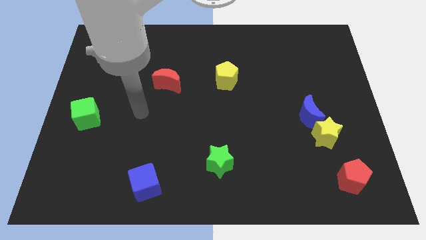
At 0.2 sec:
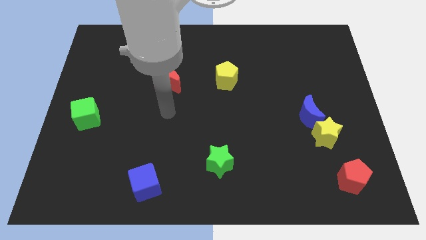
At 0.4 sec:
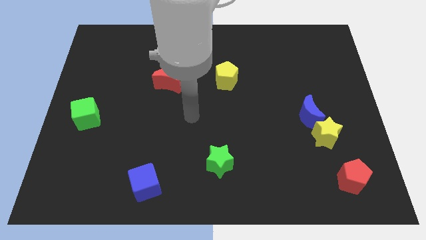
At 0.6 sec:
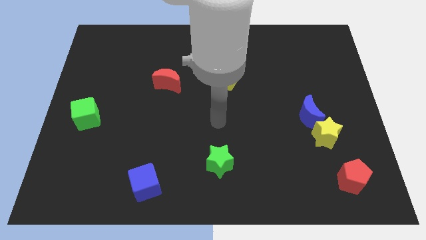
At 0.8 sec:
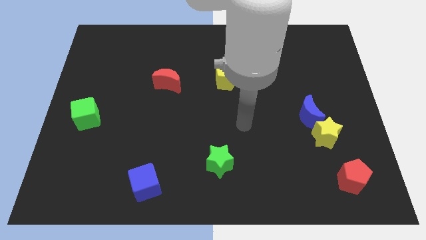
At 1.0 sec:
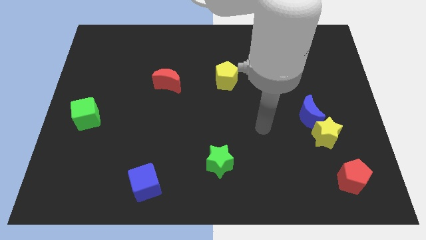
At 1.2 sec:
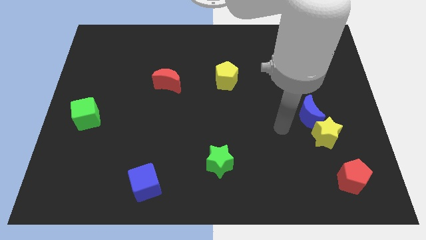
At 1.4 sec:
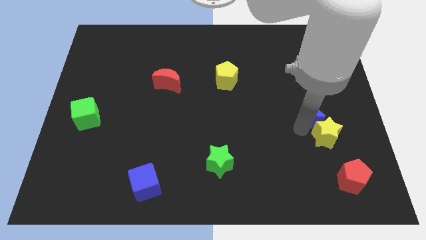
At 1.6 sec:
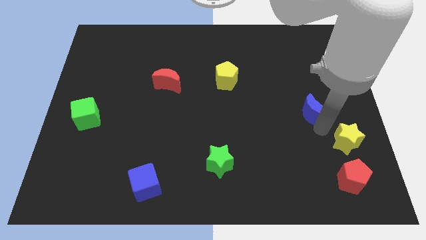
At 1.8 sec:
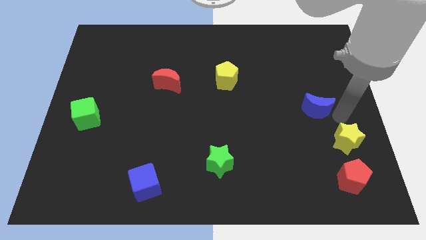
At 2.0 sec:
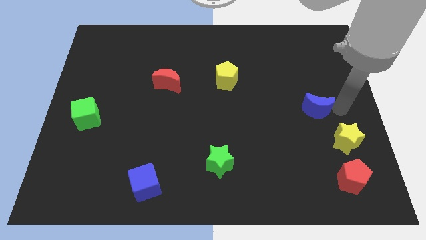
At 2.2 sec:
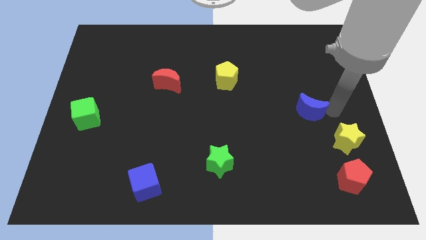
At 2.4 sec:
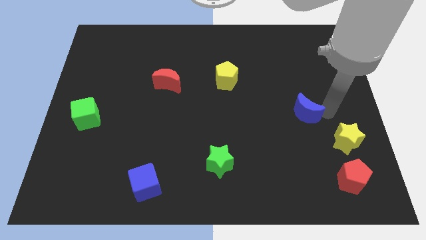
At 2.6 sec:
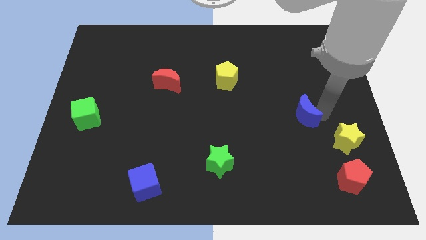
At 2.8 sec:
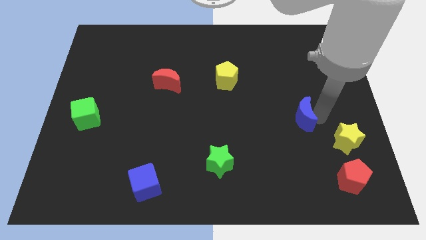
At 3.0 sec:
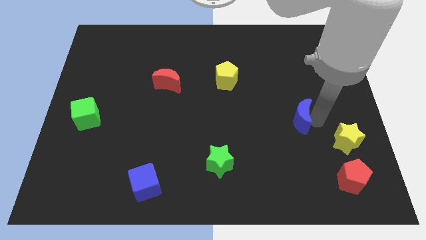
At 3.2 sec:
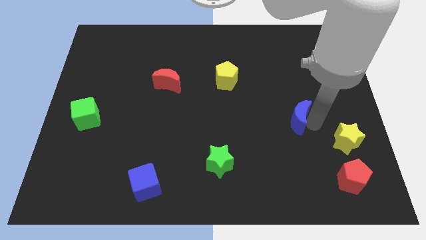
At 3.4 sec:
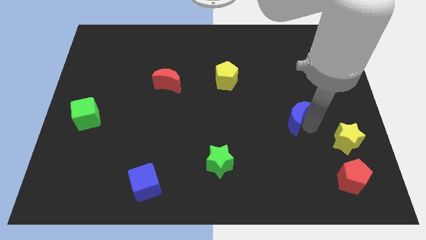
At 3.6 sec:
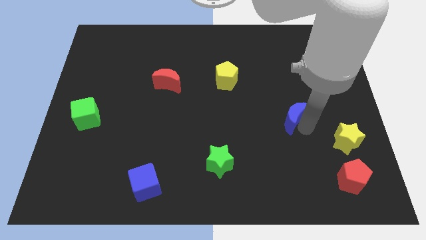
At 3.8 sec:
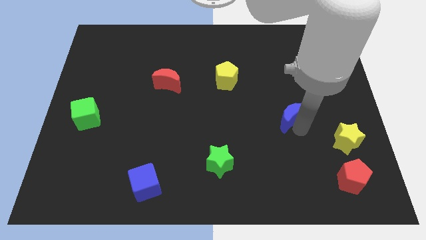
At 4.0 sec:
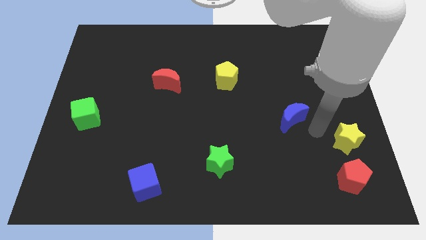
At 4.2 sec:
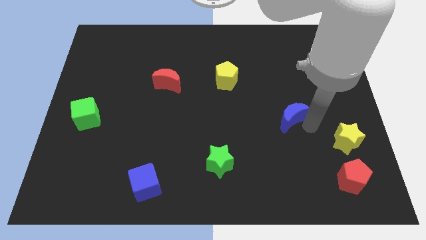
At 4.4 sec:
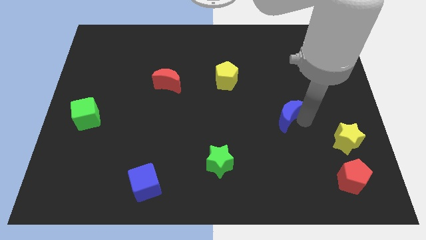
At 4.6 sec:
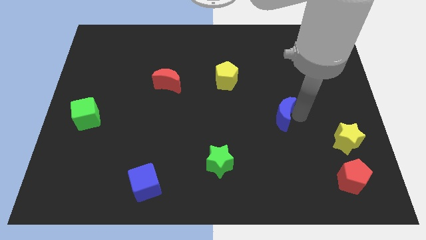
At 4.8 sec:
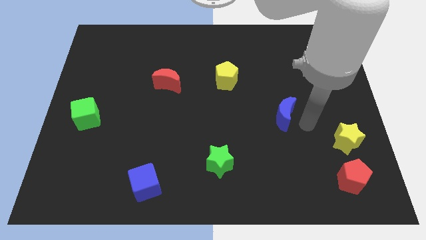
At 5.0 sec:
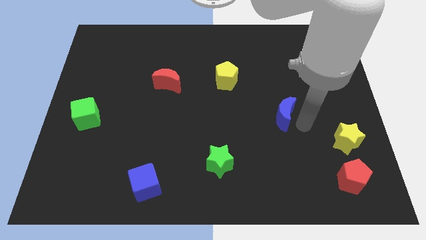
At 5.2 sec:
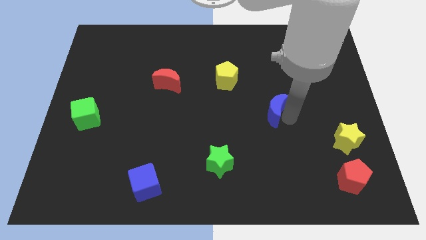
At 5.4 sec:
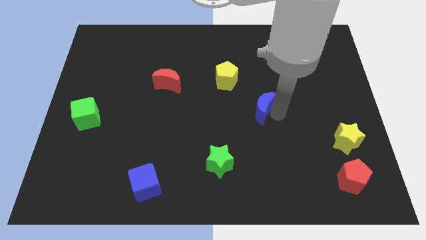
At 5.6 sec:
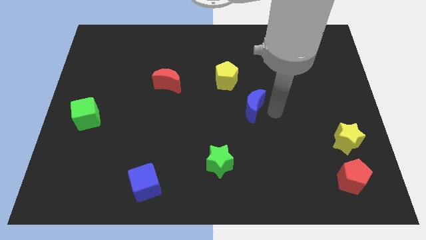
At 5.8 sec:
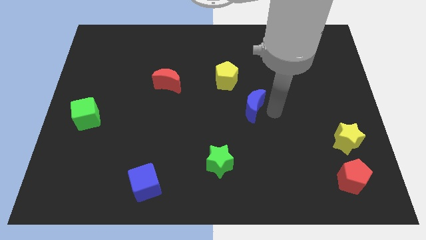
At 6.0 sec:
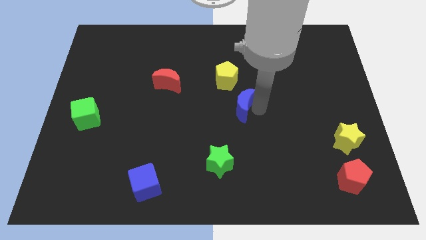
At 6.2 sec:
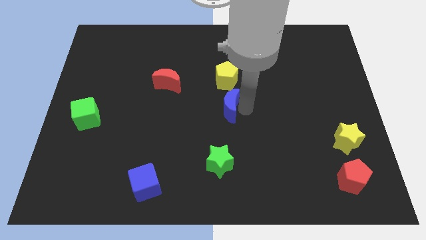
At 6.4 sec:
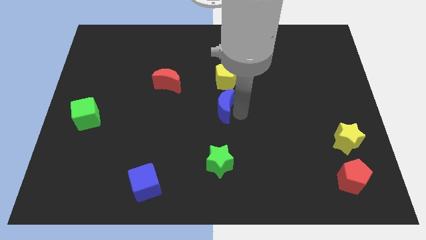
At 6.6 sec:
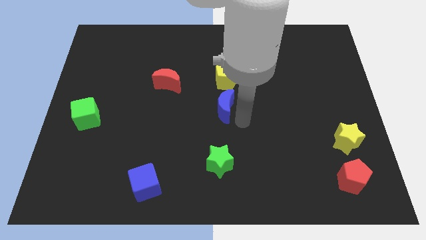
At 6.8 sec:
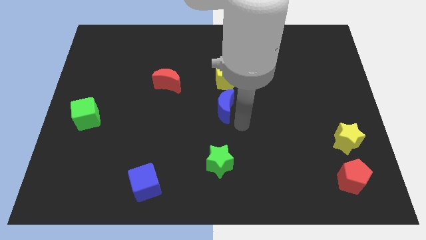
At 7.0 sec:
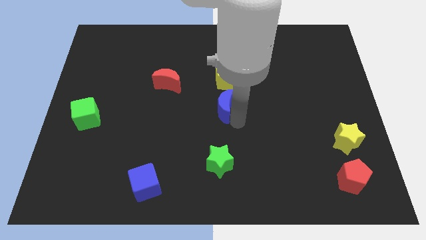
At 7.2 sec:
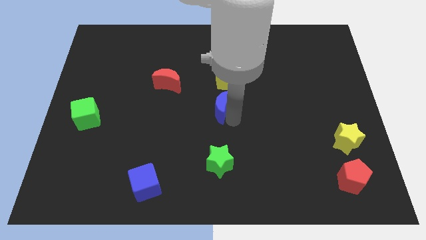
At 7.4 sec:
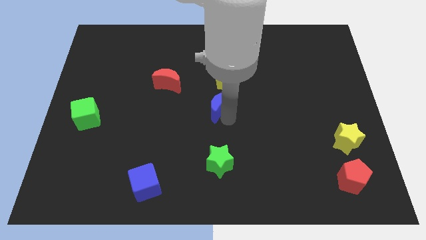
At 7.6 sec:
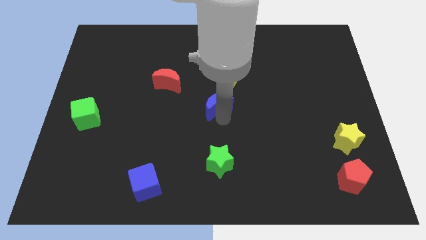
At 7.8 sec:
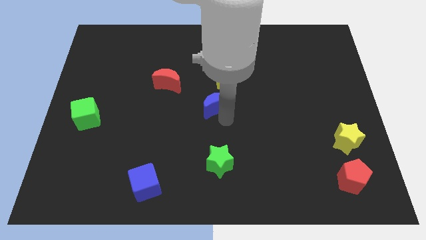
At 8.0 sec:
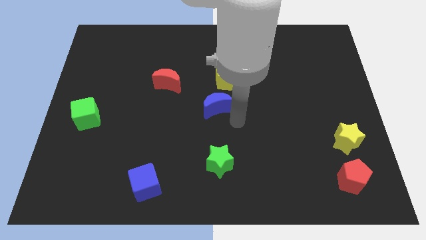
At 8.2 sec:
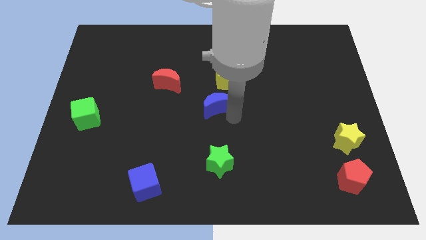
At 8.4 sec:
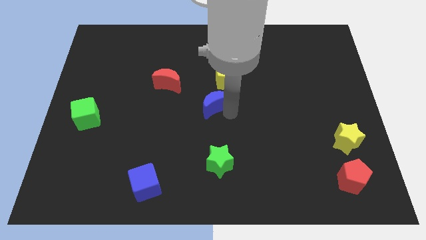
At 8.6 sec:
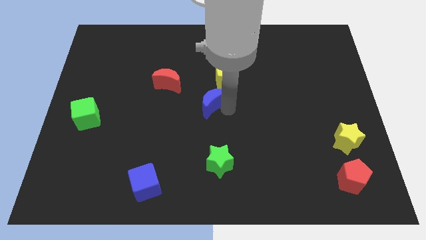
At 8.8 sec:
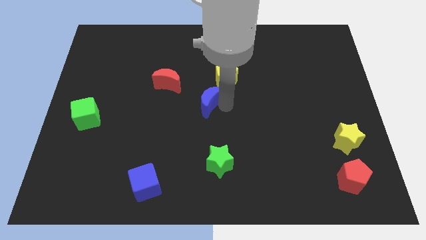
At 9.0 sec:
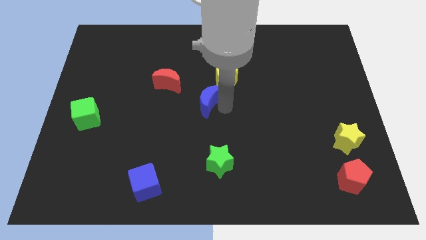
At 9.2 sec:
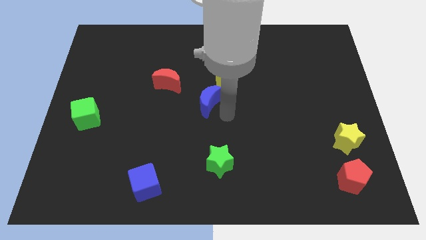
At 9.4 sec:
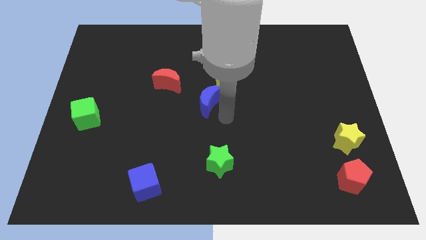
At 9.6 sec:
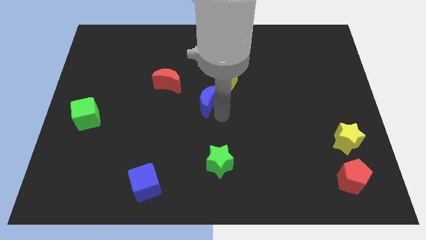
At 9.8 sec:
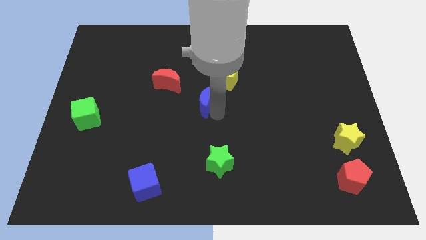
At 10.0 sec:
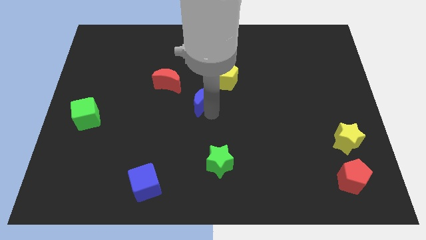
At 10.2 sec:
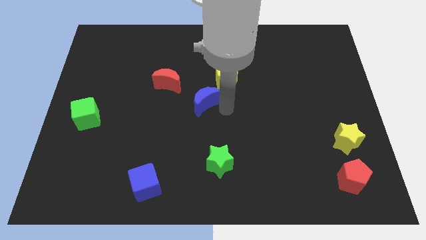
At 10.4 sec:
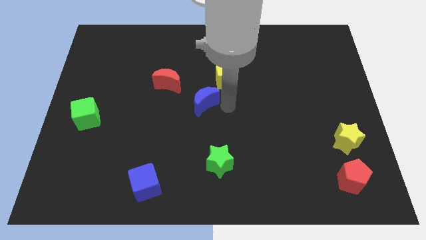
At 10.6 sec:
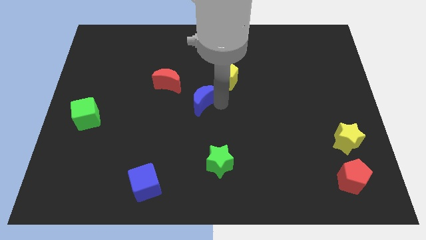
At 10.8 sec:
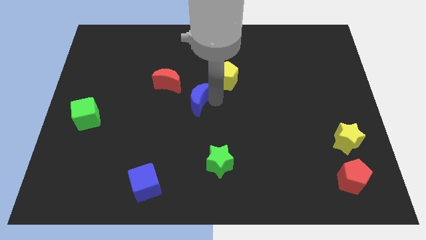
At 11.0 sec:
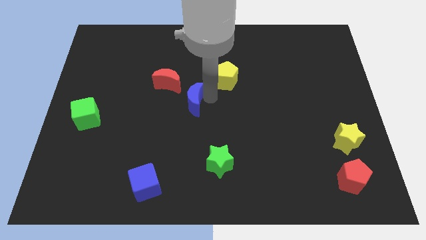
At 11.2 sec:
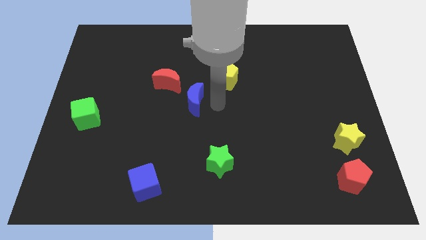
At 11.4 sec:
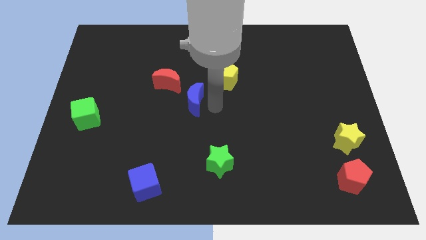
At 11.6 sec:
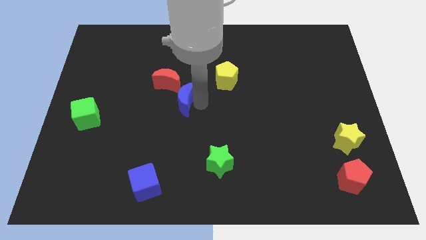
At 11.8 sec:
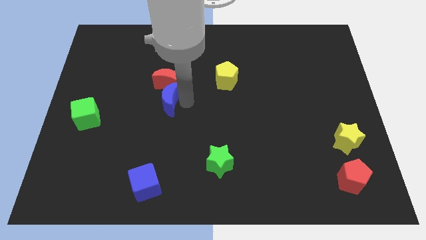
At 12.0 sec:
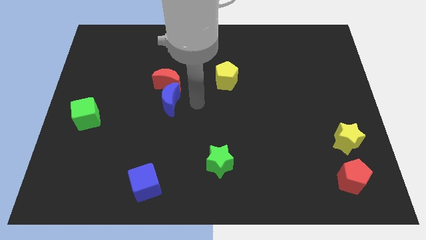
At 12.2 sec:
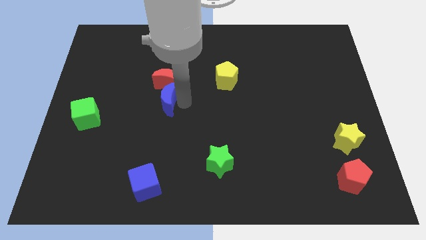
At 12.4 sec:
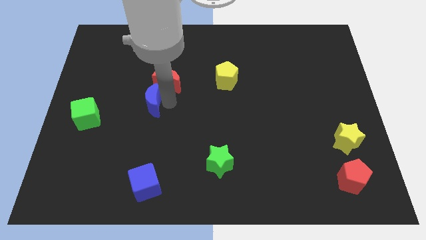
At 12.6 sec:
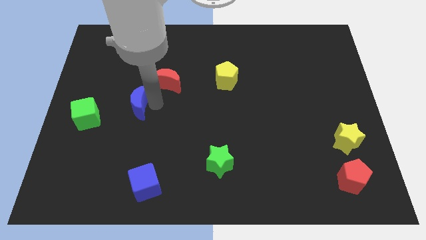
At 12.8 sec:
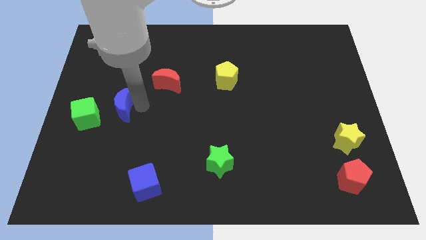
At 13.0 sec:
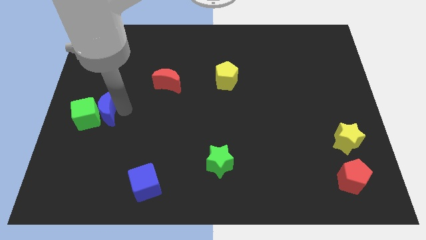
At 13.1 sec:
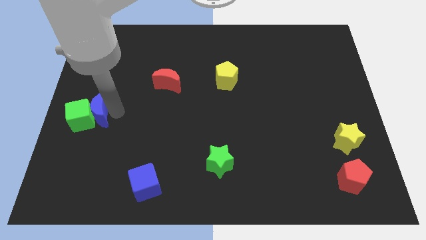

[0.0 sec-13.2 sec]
put the blue moon to the left side
